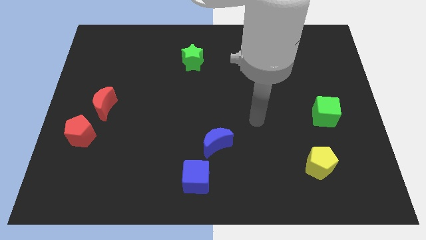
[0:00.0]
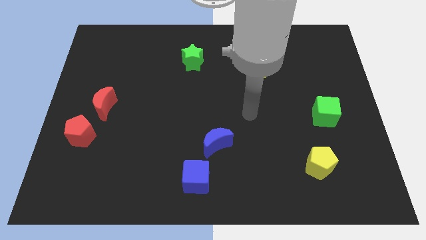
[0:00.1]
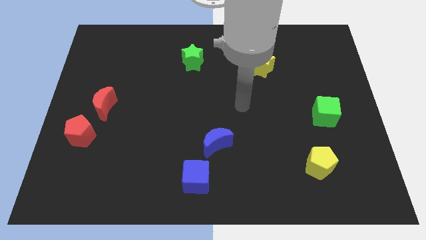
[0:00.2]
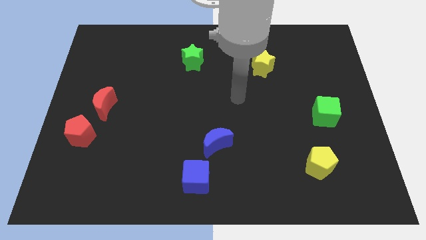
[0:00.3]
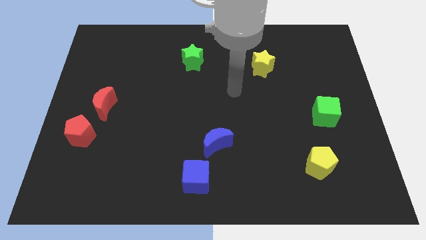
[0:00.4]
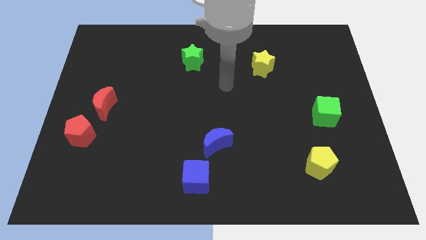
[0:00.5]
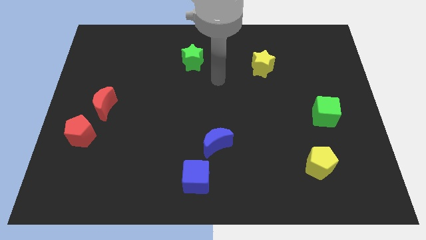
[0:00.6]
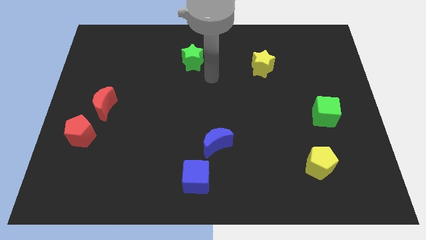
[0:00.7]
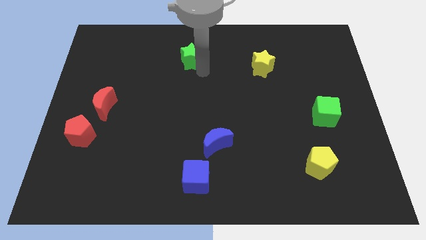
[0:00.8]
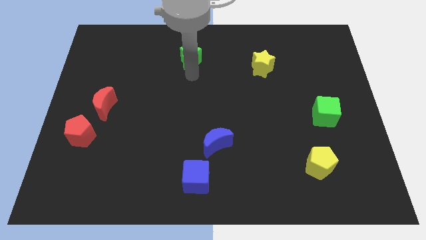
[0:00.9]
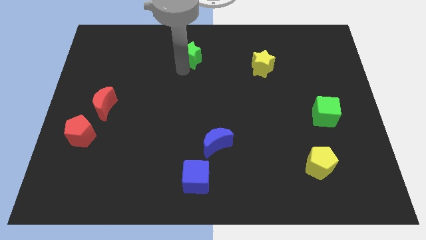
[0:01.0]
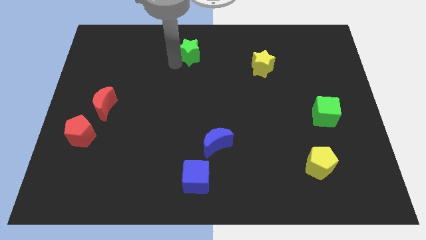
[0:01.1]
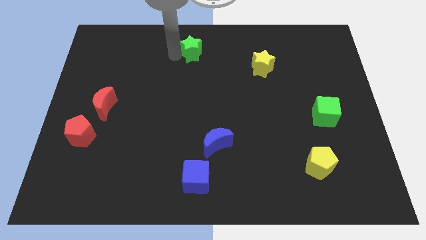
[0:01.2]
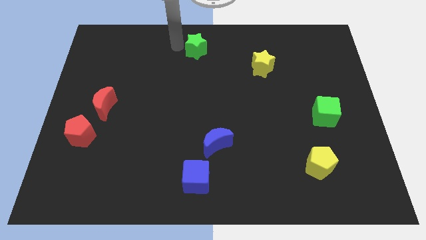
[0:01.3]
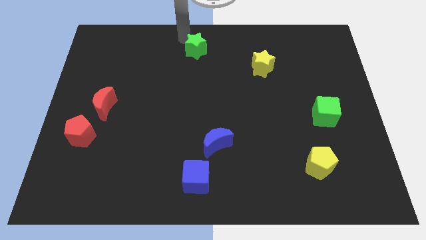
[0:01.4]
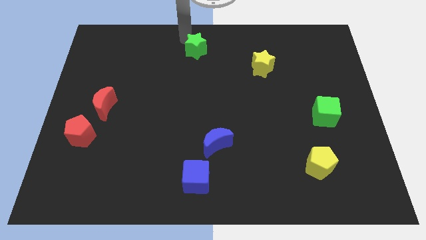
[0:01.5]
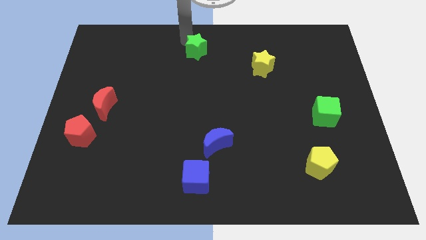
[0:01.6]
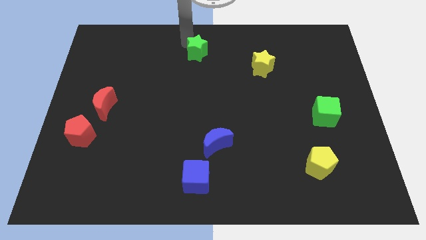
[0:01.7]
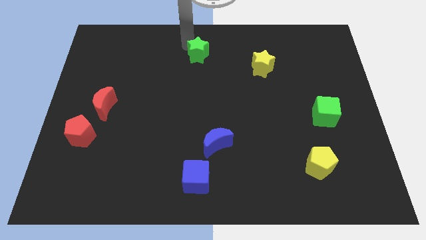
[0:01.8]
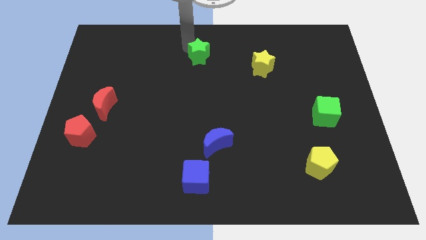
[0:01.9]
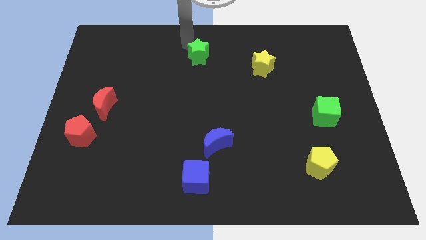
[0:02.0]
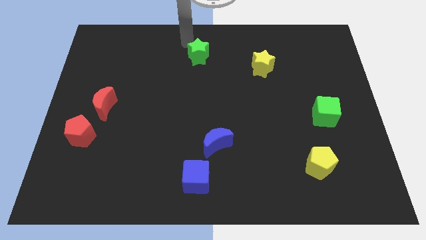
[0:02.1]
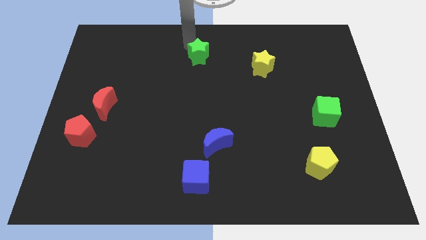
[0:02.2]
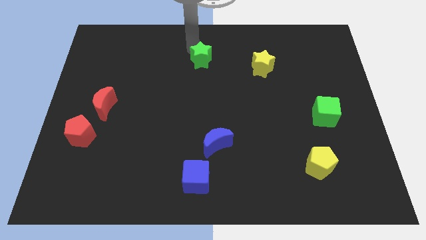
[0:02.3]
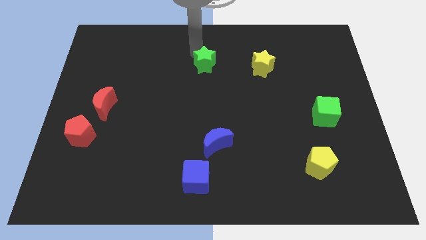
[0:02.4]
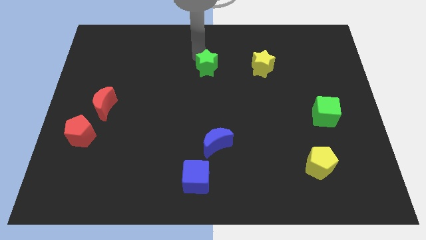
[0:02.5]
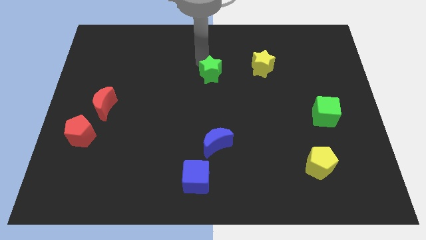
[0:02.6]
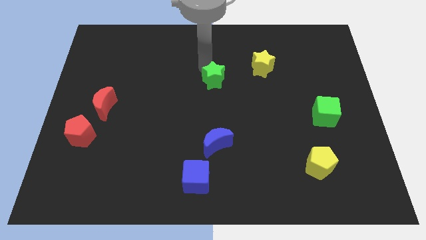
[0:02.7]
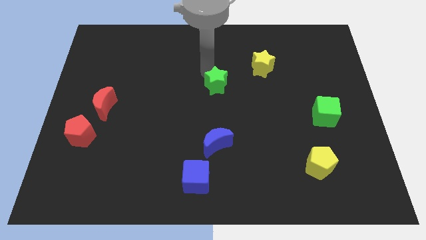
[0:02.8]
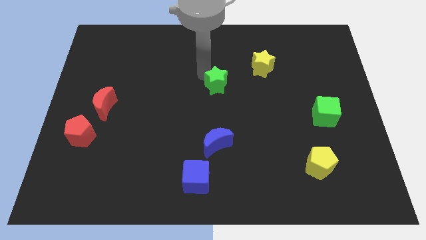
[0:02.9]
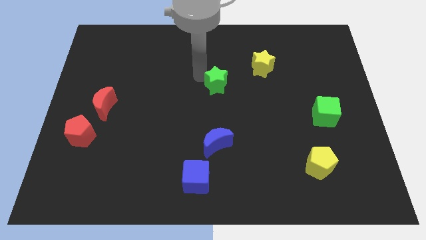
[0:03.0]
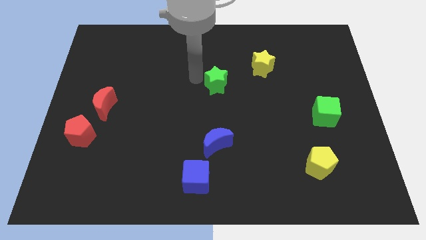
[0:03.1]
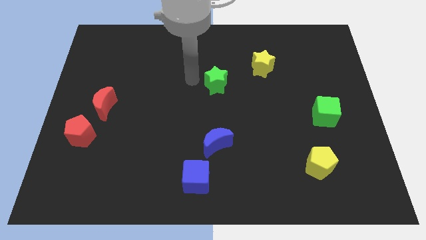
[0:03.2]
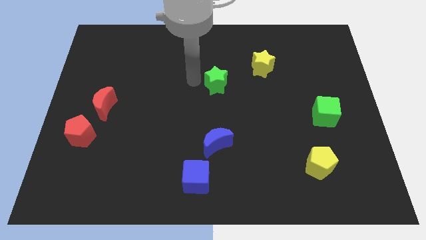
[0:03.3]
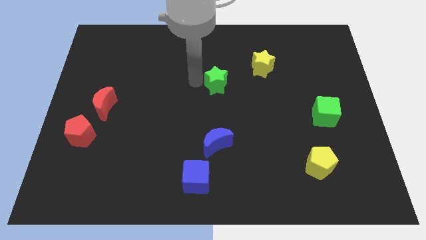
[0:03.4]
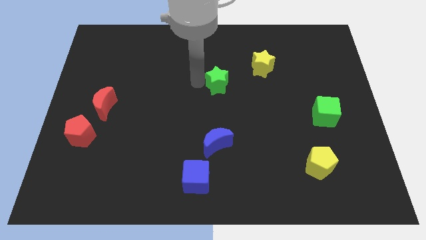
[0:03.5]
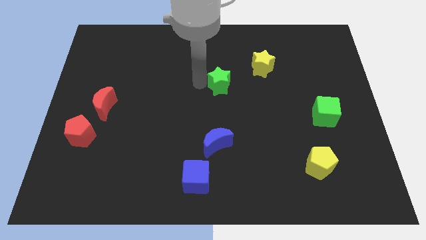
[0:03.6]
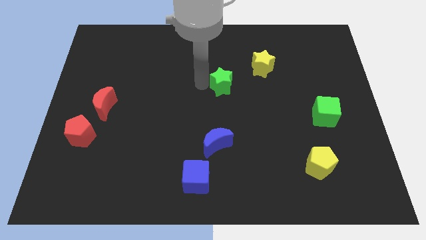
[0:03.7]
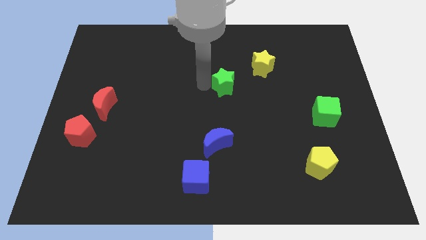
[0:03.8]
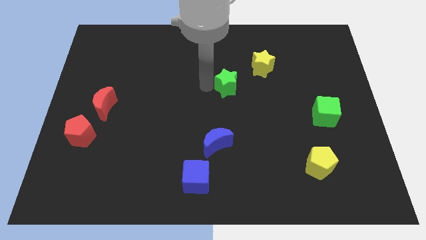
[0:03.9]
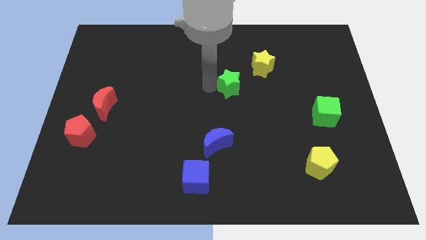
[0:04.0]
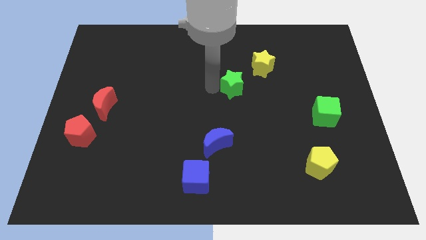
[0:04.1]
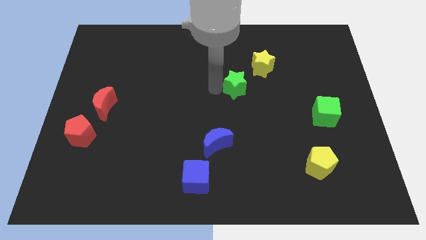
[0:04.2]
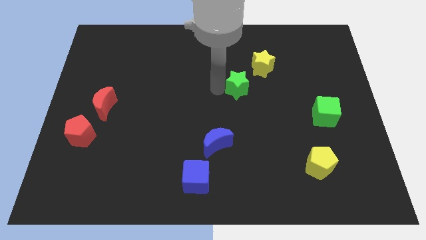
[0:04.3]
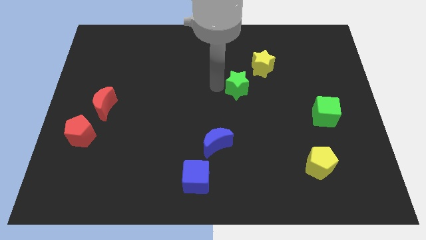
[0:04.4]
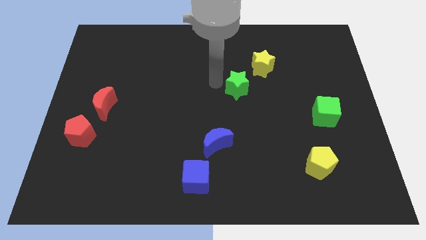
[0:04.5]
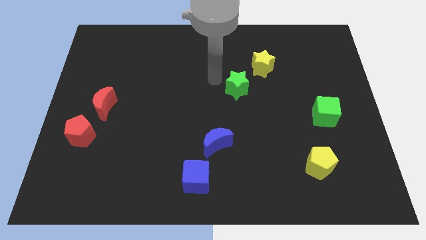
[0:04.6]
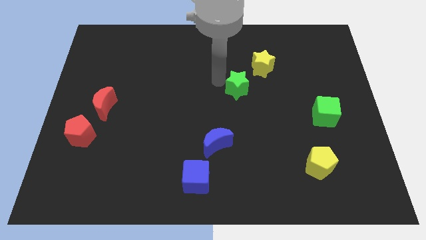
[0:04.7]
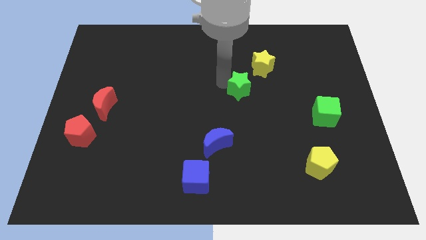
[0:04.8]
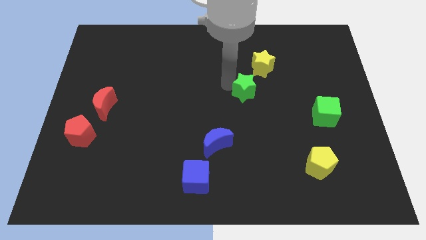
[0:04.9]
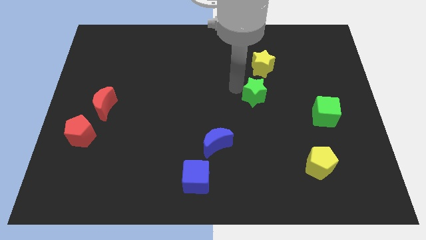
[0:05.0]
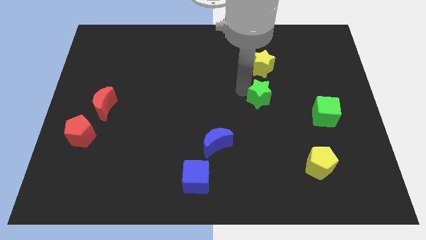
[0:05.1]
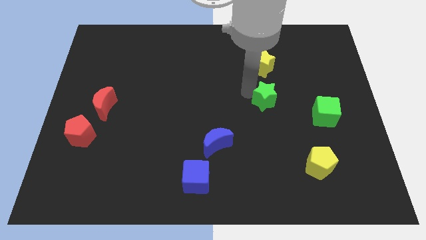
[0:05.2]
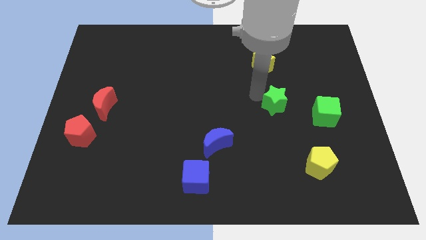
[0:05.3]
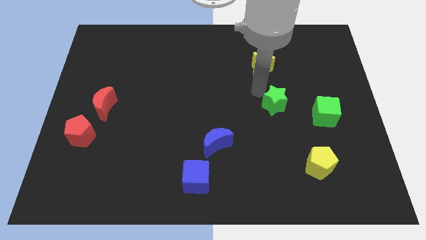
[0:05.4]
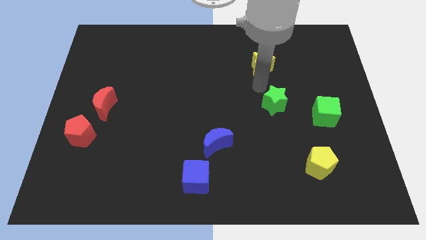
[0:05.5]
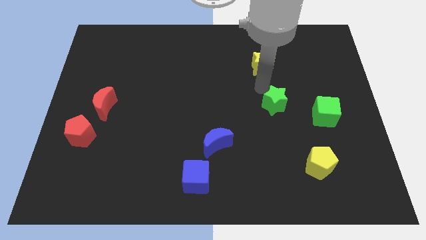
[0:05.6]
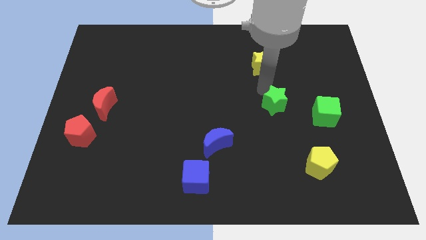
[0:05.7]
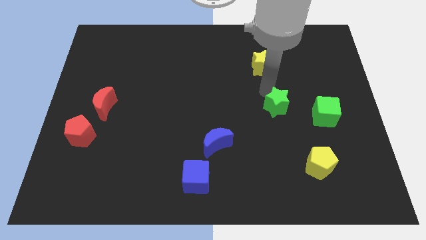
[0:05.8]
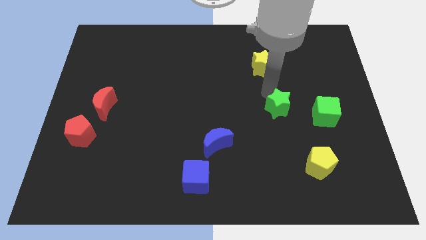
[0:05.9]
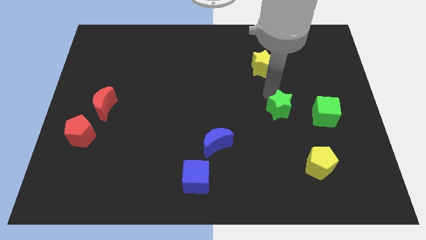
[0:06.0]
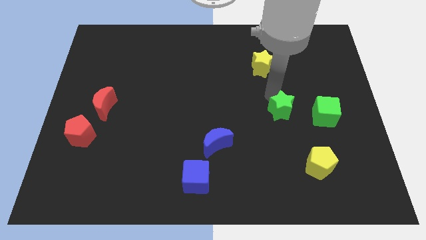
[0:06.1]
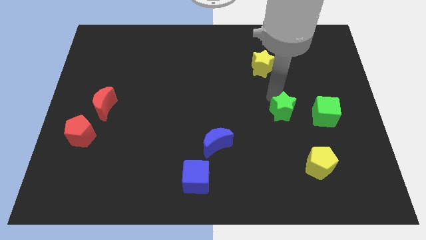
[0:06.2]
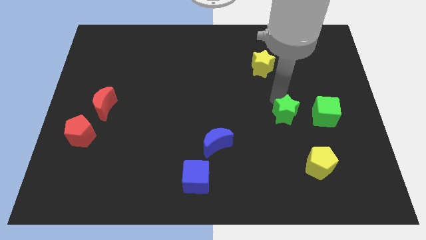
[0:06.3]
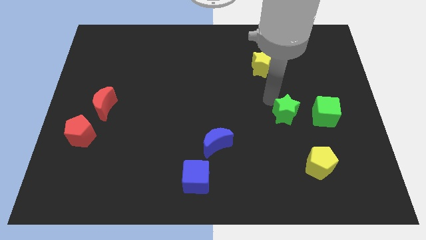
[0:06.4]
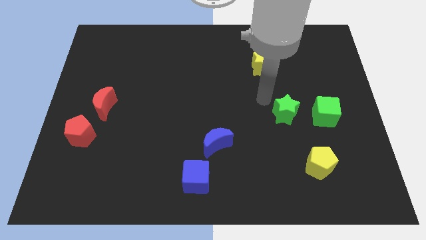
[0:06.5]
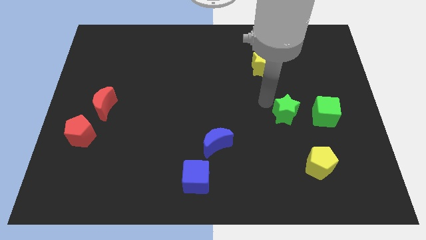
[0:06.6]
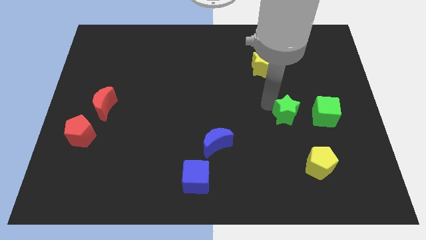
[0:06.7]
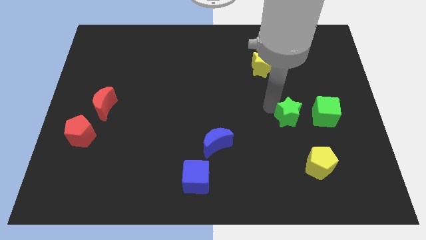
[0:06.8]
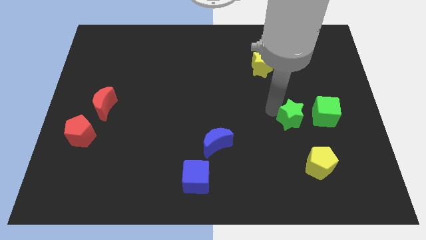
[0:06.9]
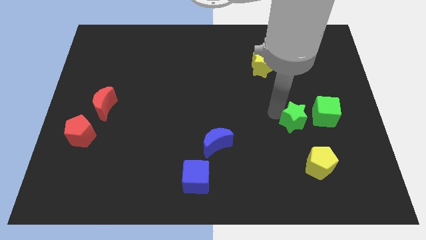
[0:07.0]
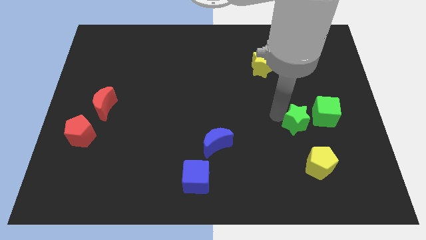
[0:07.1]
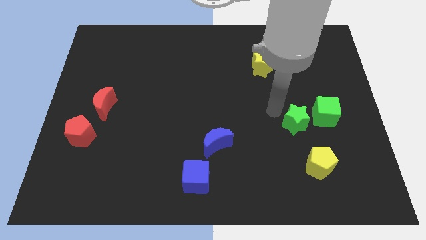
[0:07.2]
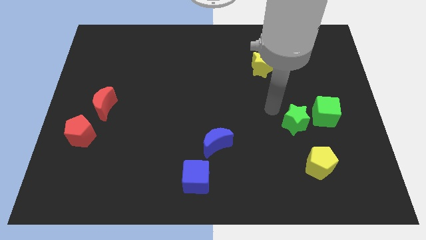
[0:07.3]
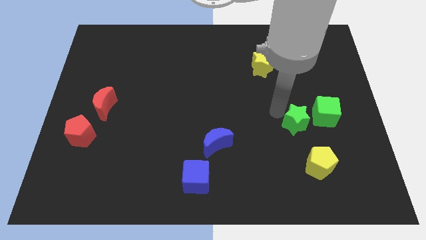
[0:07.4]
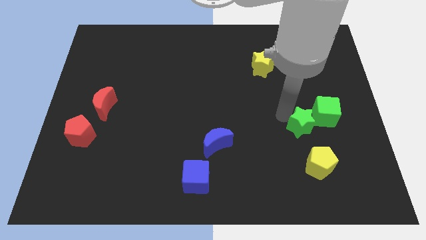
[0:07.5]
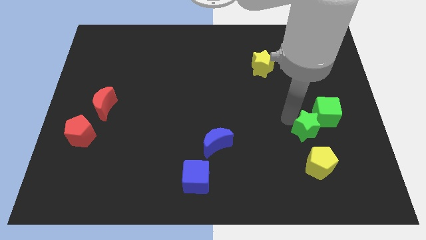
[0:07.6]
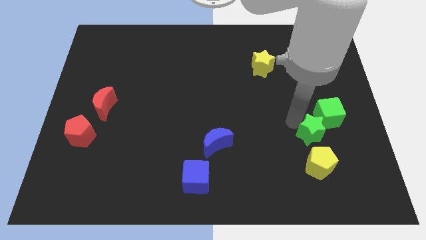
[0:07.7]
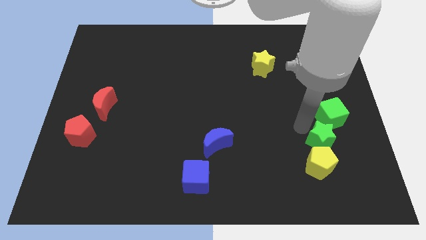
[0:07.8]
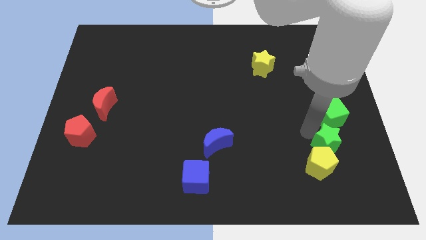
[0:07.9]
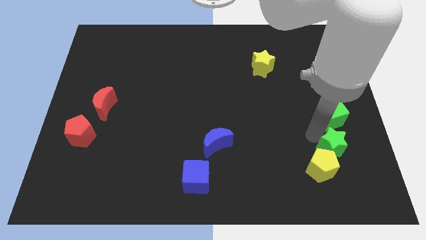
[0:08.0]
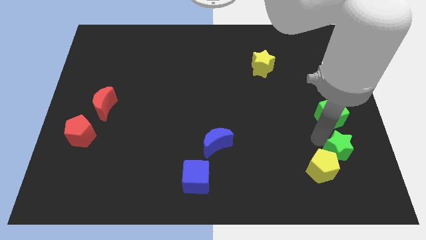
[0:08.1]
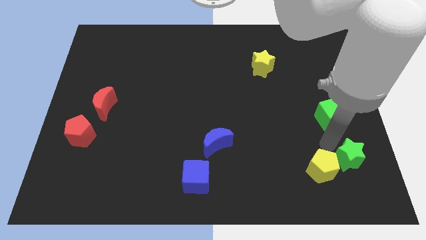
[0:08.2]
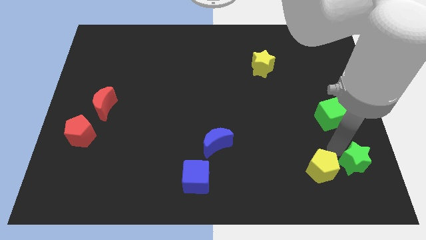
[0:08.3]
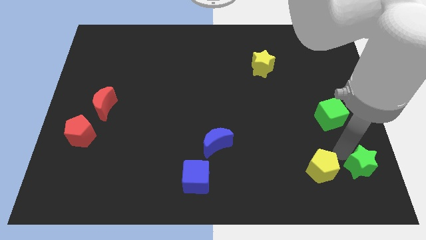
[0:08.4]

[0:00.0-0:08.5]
push the green star to the bottom right corner
